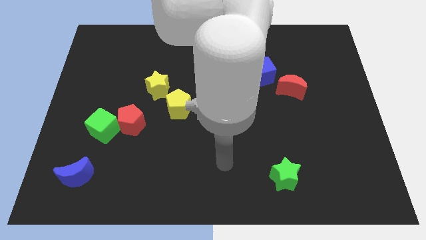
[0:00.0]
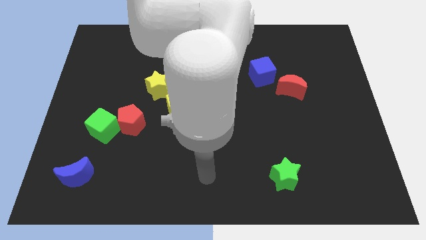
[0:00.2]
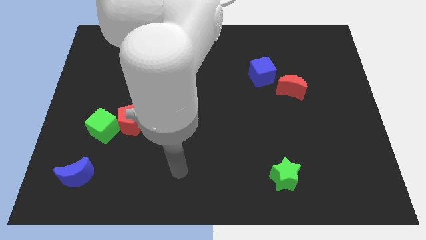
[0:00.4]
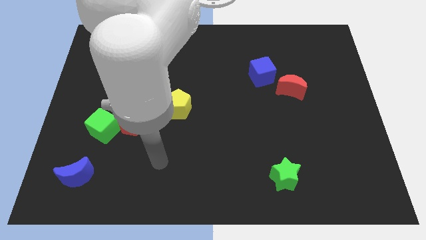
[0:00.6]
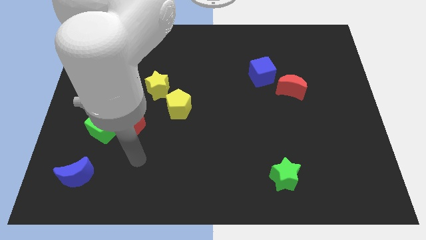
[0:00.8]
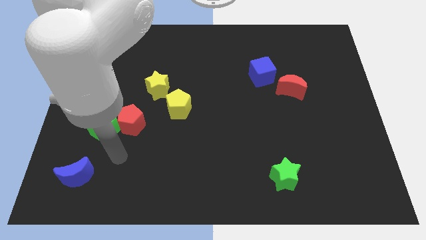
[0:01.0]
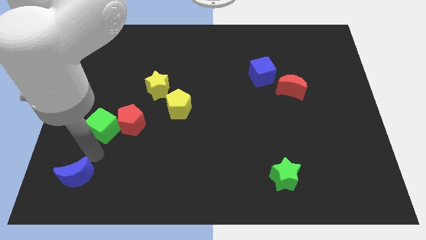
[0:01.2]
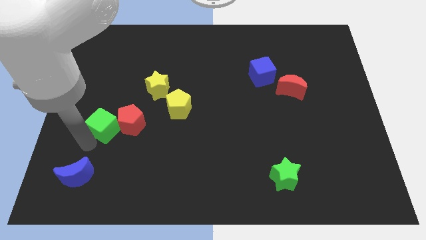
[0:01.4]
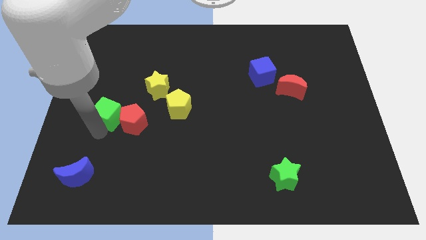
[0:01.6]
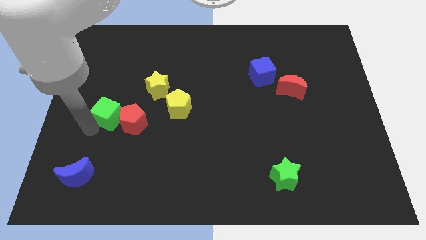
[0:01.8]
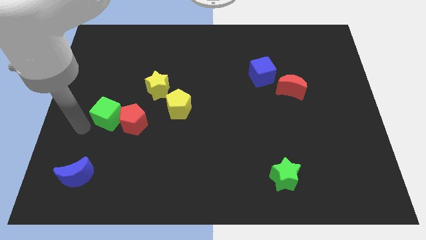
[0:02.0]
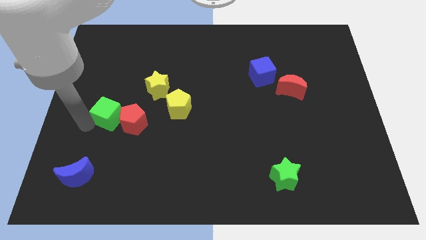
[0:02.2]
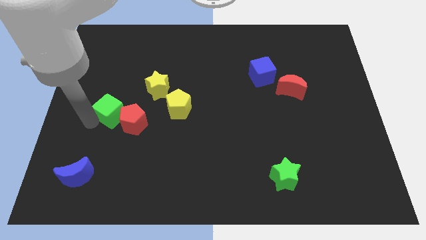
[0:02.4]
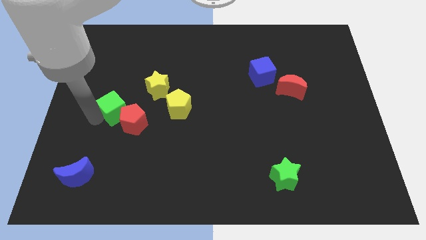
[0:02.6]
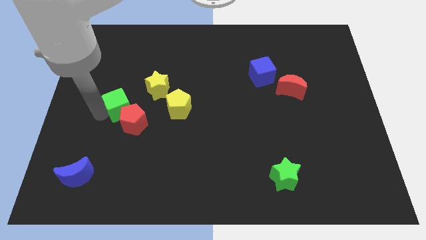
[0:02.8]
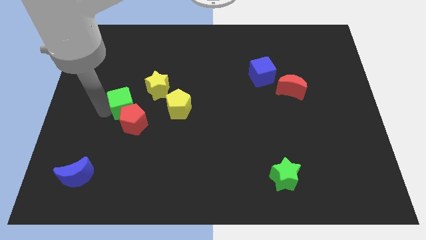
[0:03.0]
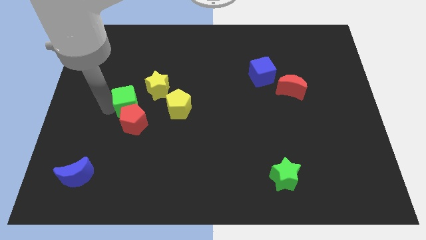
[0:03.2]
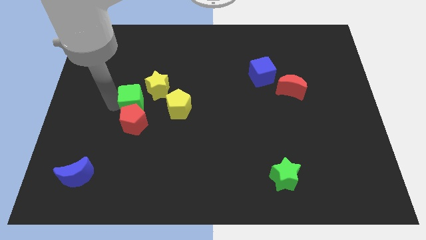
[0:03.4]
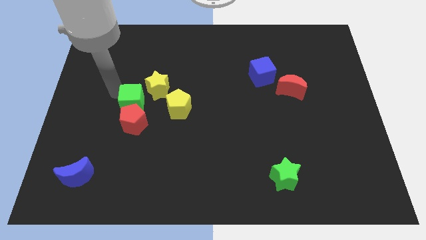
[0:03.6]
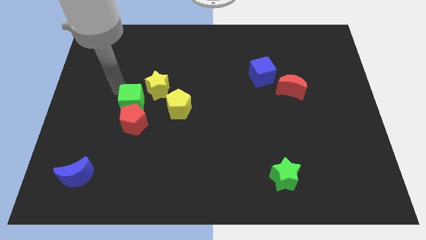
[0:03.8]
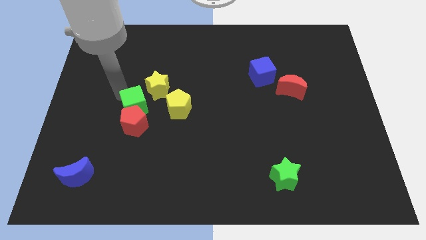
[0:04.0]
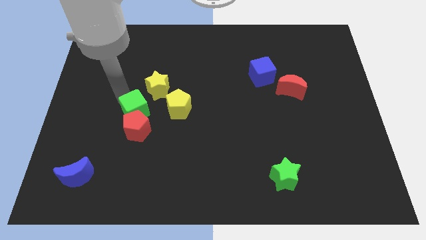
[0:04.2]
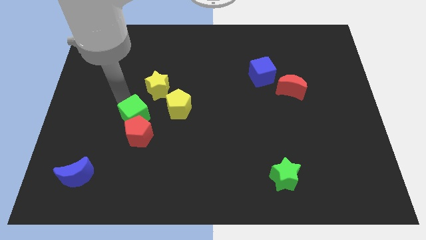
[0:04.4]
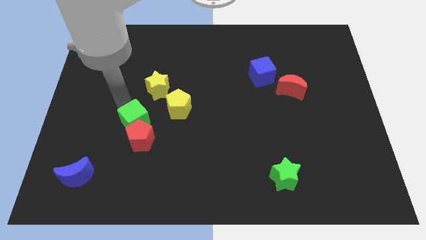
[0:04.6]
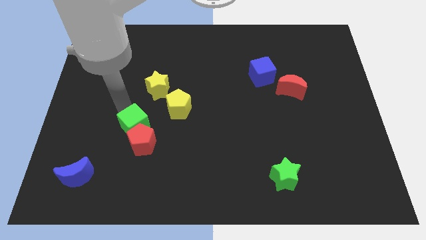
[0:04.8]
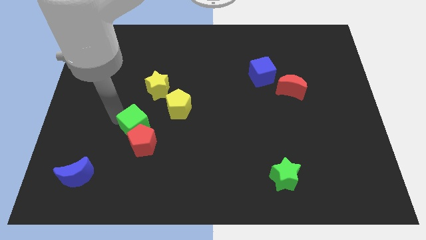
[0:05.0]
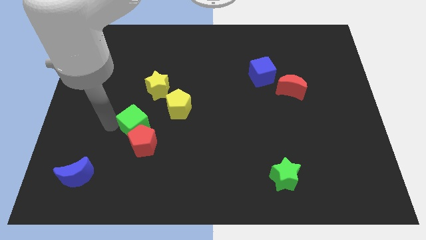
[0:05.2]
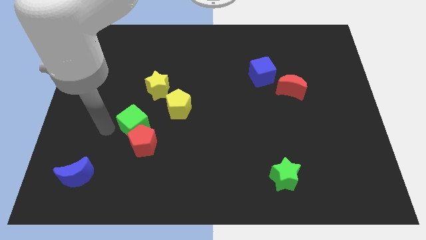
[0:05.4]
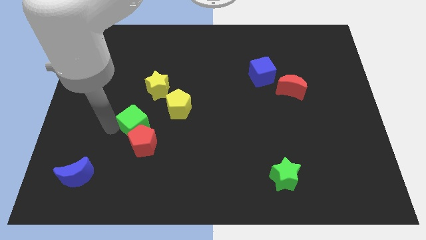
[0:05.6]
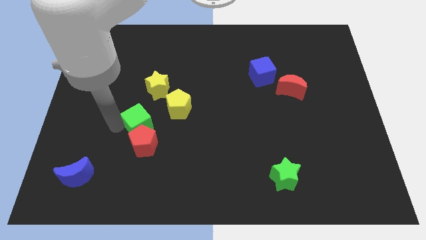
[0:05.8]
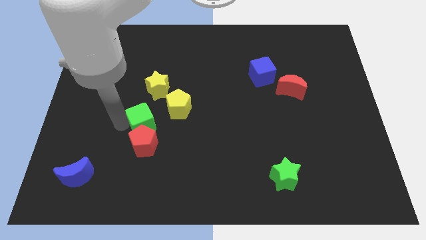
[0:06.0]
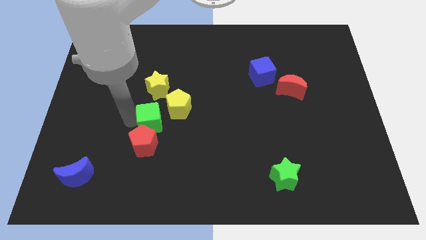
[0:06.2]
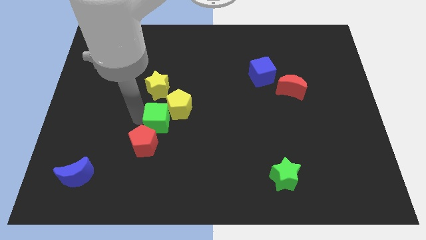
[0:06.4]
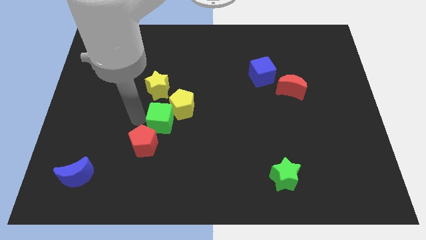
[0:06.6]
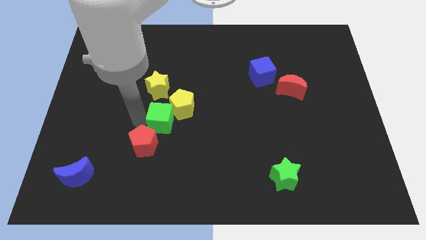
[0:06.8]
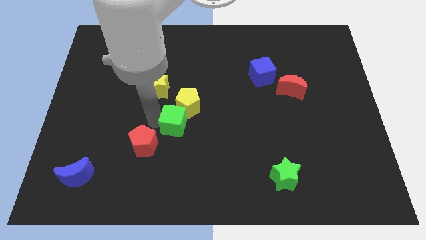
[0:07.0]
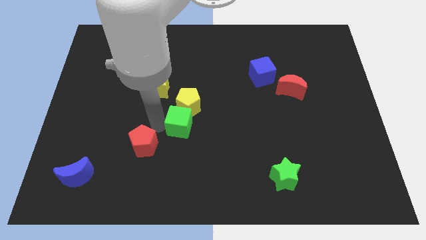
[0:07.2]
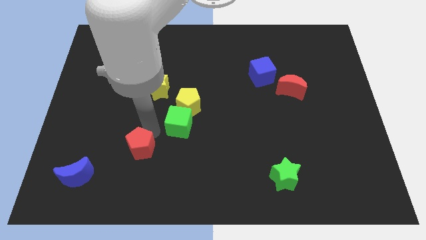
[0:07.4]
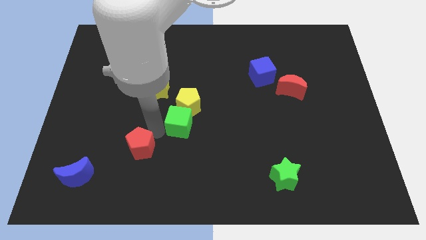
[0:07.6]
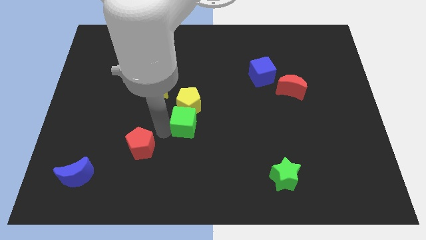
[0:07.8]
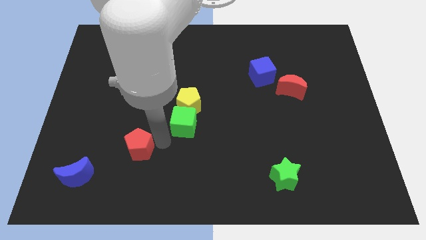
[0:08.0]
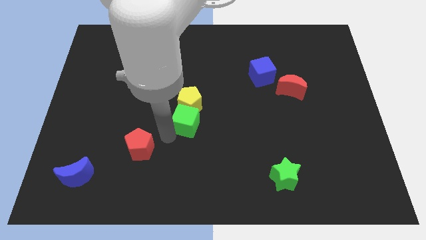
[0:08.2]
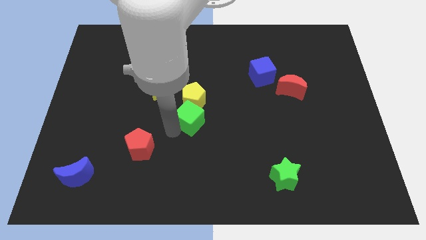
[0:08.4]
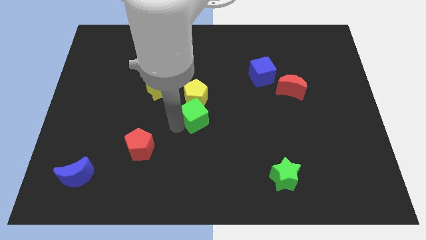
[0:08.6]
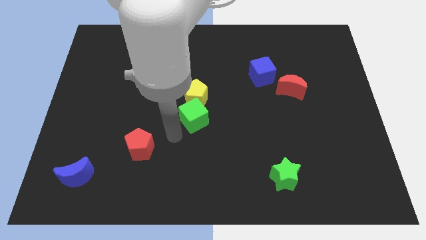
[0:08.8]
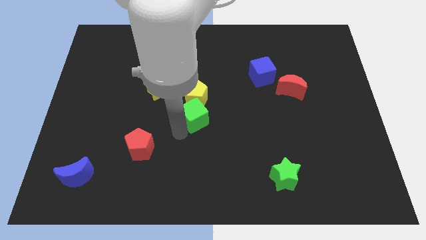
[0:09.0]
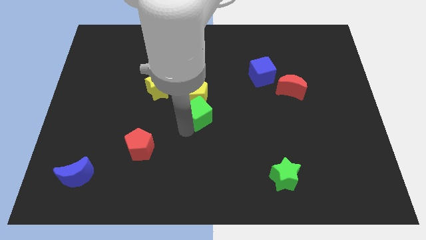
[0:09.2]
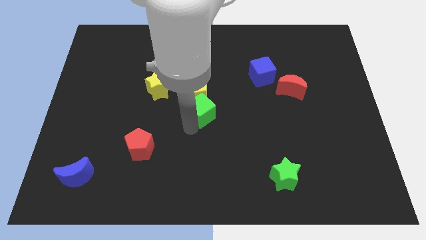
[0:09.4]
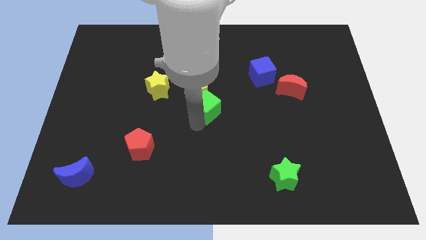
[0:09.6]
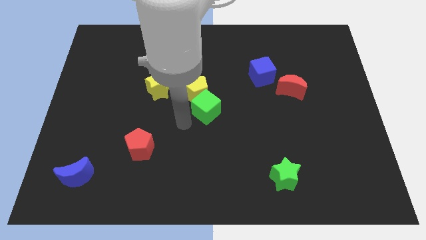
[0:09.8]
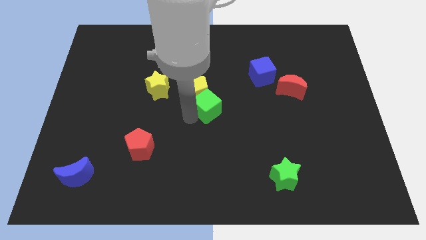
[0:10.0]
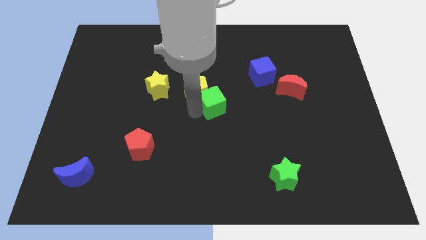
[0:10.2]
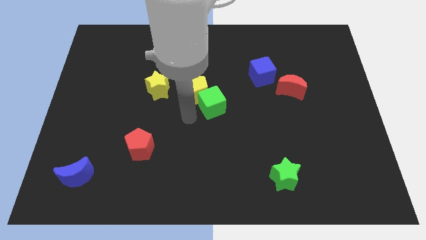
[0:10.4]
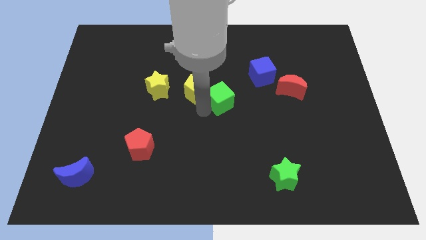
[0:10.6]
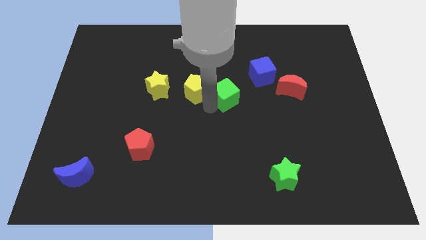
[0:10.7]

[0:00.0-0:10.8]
slide the green cube to the bottom left side of the blue cube

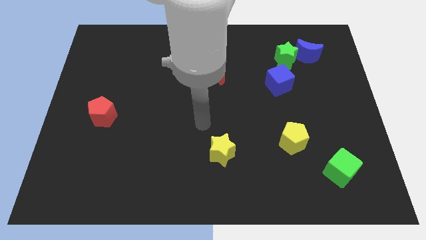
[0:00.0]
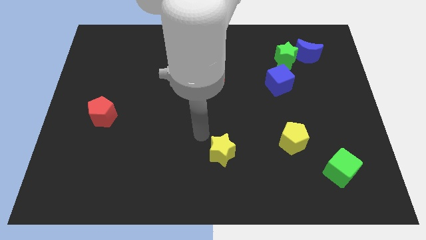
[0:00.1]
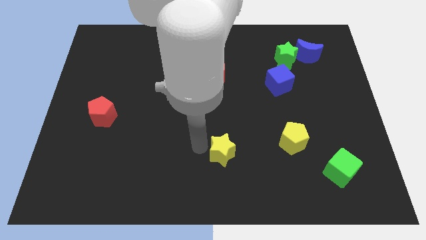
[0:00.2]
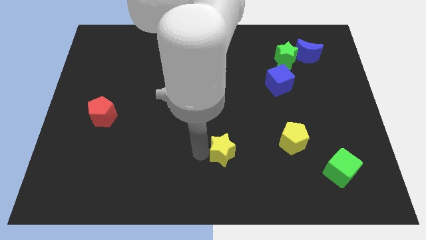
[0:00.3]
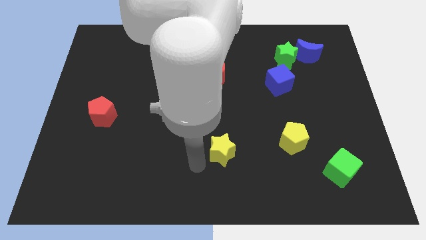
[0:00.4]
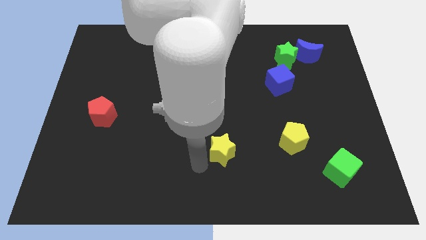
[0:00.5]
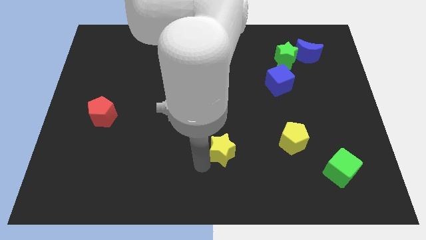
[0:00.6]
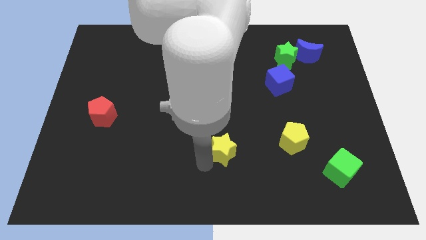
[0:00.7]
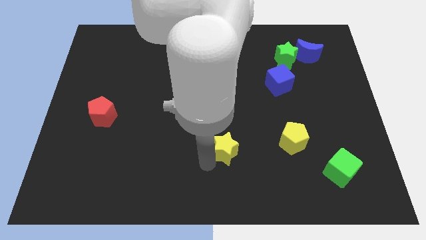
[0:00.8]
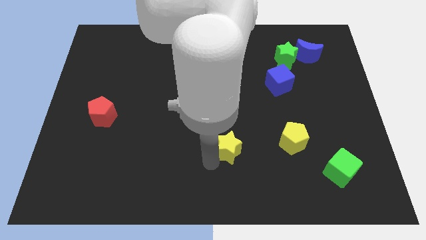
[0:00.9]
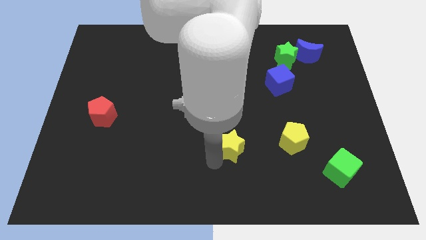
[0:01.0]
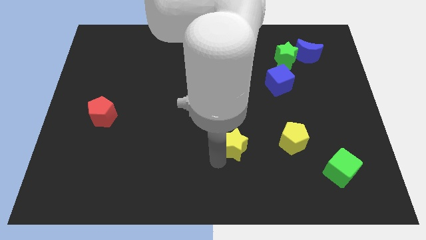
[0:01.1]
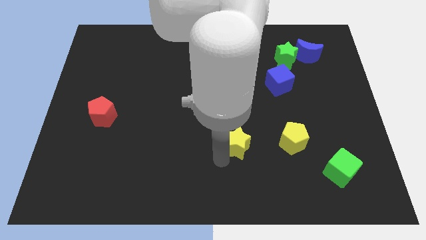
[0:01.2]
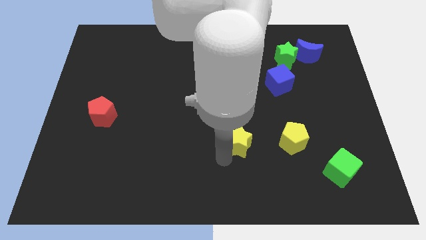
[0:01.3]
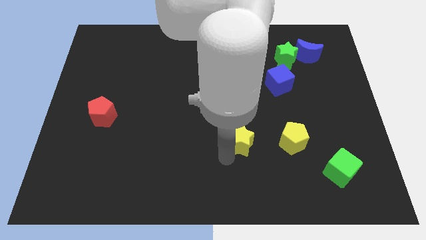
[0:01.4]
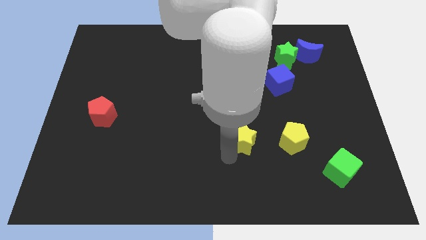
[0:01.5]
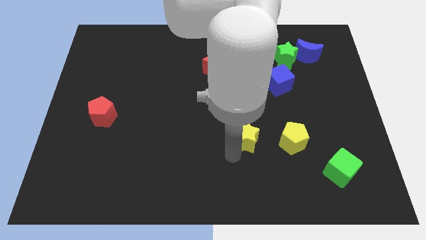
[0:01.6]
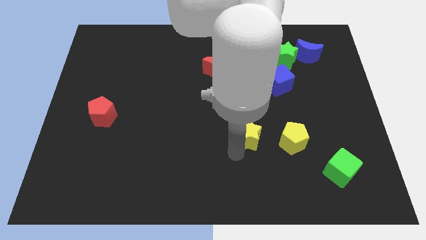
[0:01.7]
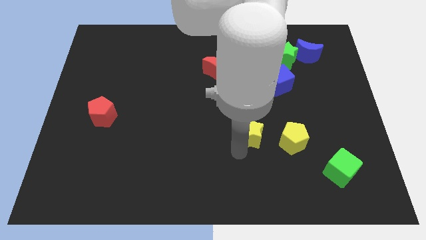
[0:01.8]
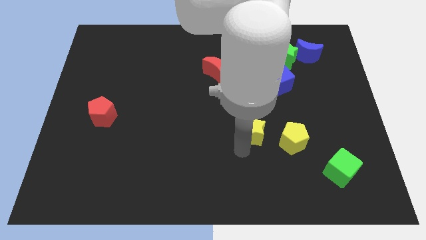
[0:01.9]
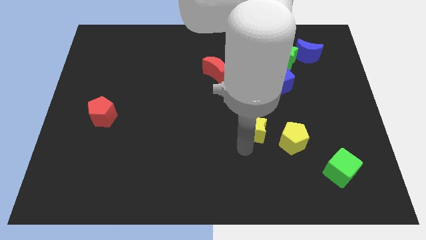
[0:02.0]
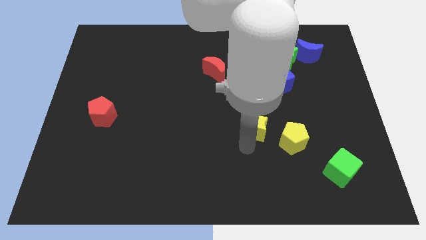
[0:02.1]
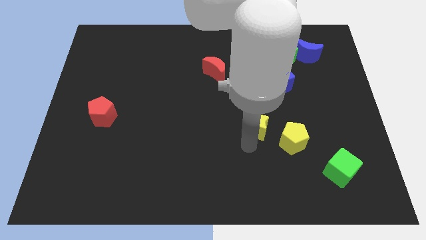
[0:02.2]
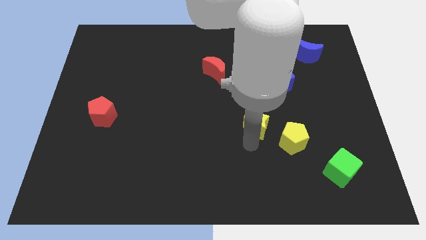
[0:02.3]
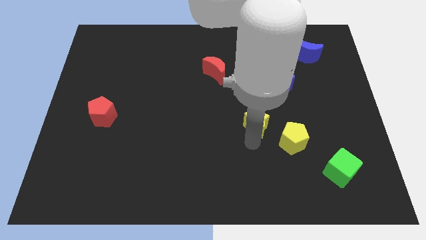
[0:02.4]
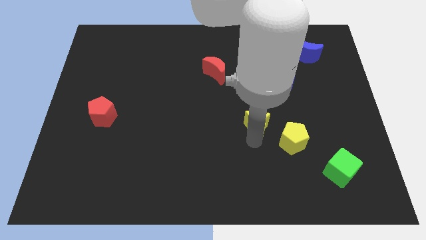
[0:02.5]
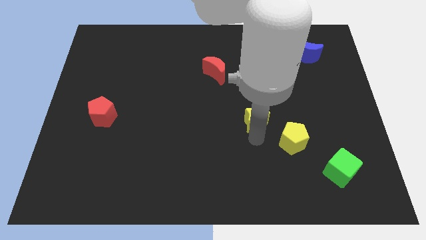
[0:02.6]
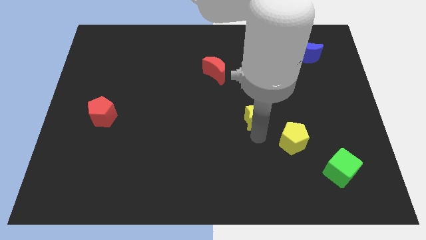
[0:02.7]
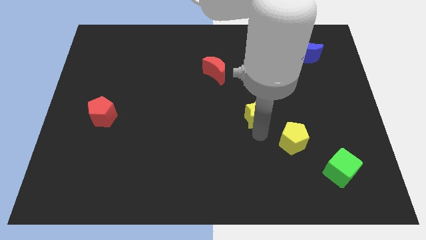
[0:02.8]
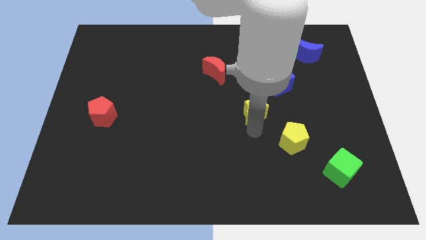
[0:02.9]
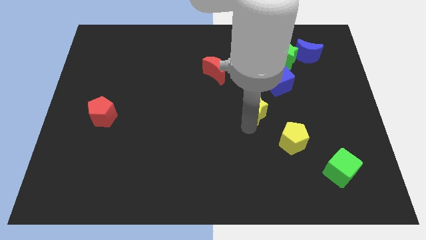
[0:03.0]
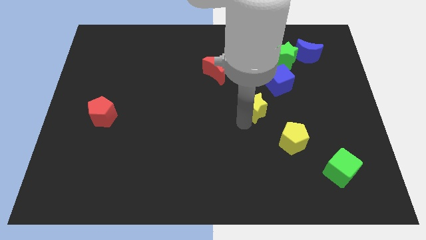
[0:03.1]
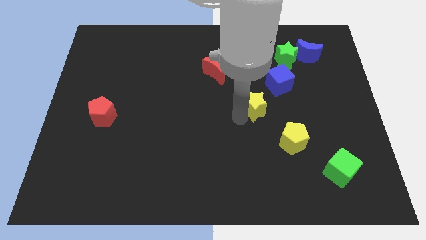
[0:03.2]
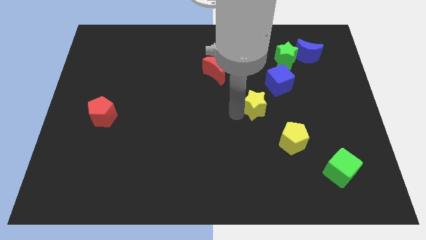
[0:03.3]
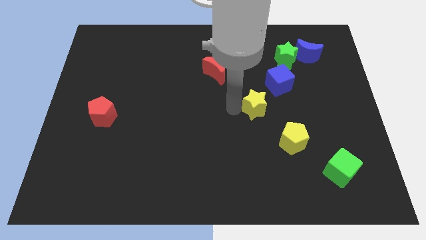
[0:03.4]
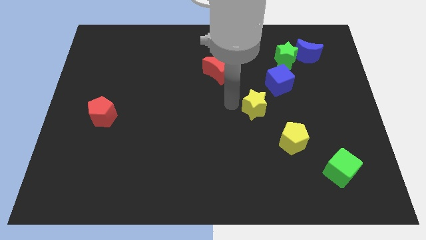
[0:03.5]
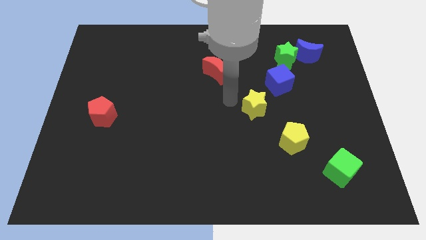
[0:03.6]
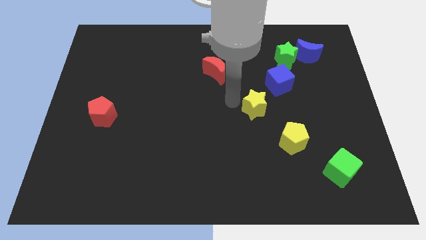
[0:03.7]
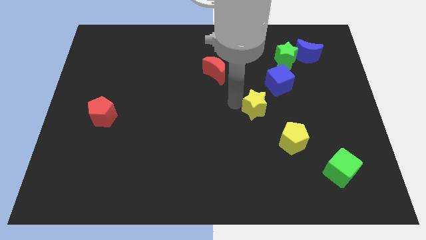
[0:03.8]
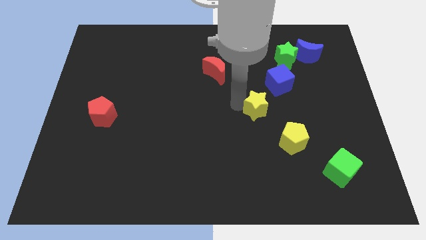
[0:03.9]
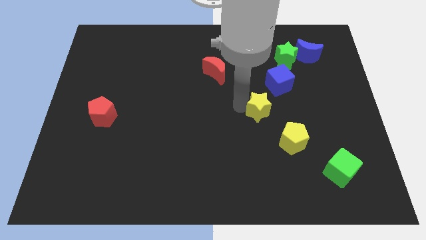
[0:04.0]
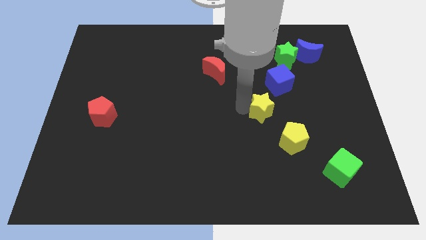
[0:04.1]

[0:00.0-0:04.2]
slide the yellow star to the bottom of the blue cube
